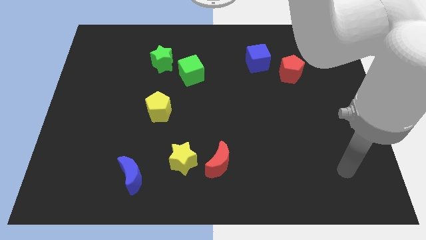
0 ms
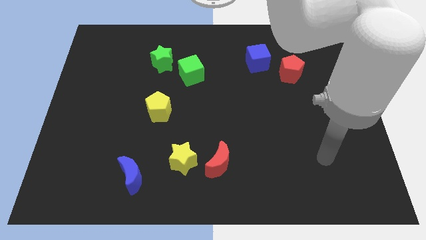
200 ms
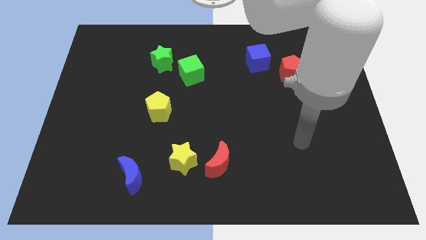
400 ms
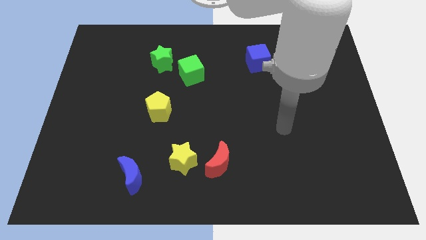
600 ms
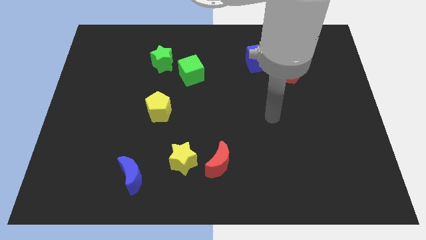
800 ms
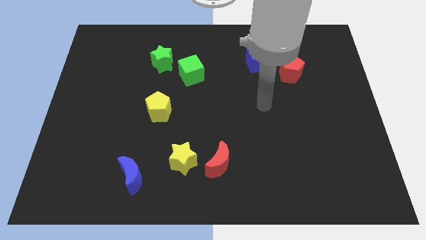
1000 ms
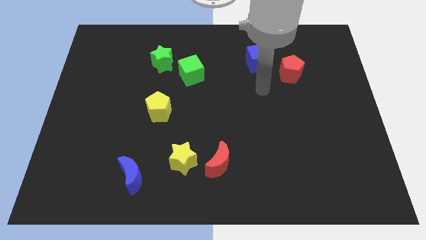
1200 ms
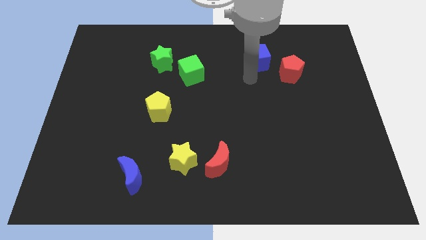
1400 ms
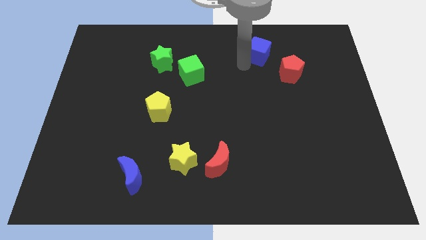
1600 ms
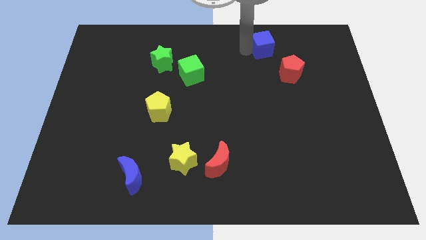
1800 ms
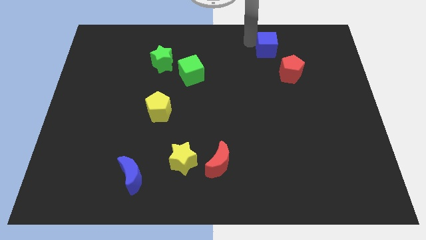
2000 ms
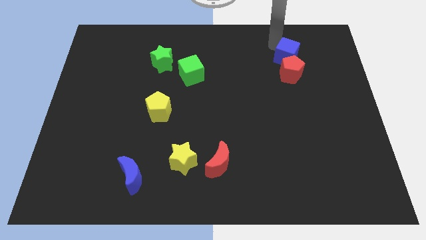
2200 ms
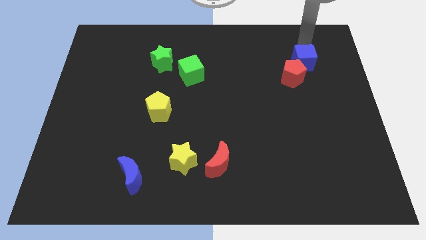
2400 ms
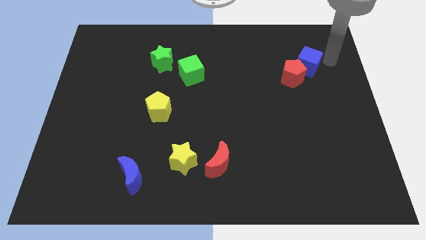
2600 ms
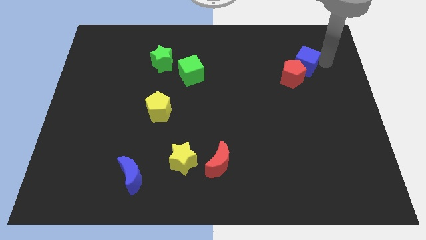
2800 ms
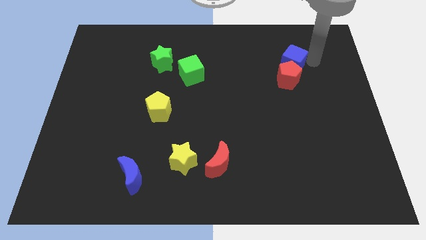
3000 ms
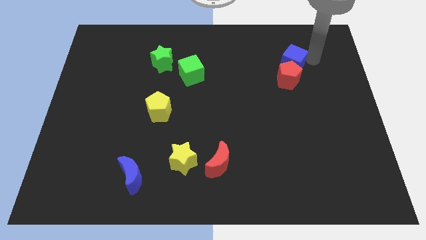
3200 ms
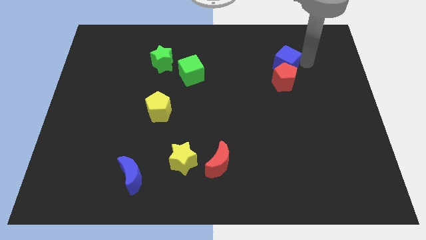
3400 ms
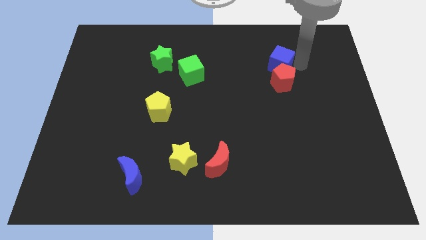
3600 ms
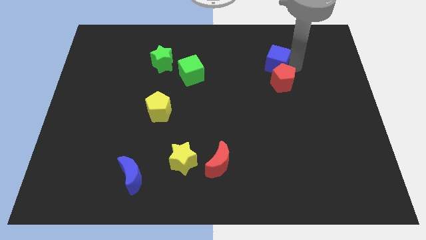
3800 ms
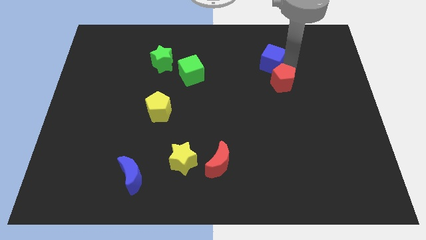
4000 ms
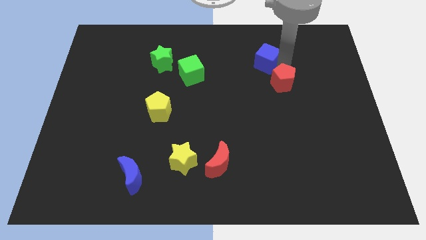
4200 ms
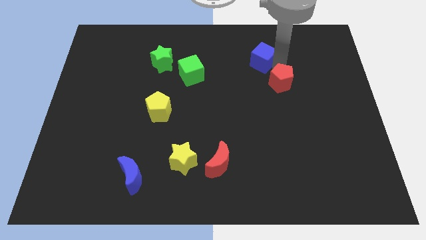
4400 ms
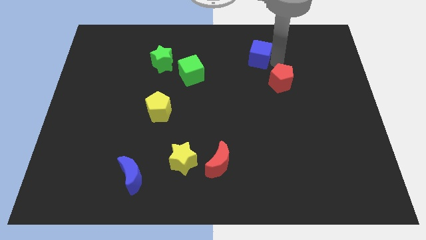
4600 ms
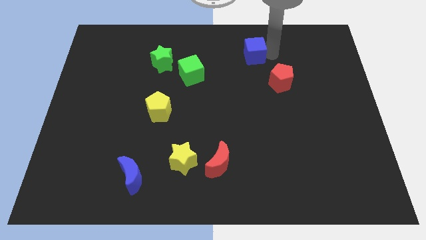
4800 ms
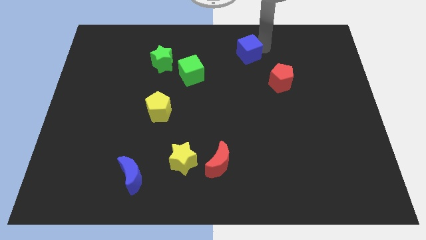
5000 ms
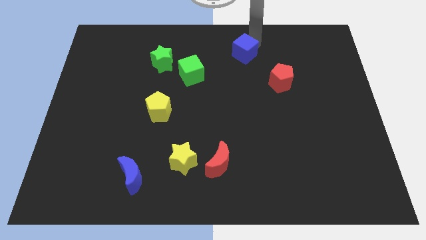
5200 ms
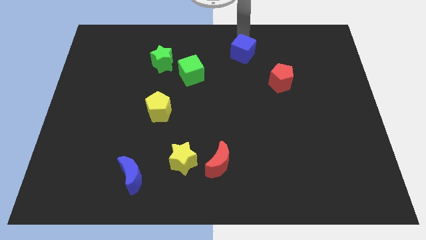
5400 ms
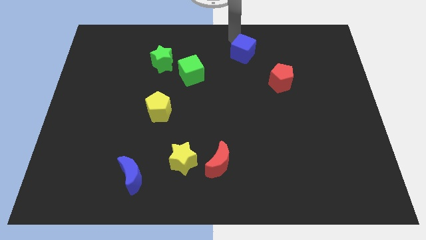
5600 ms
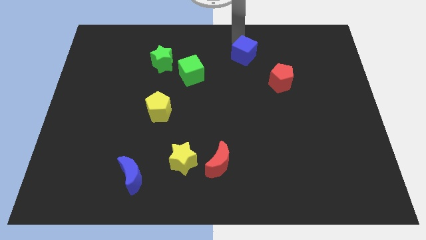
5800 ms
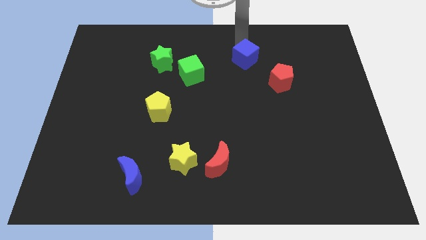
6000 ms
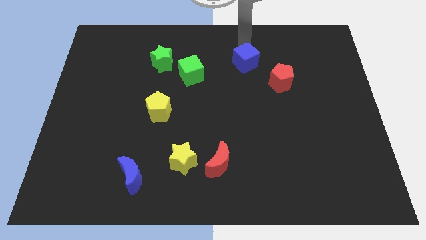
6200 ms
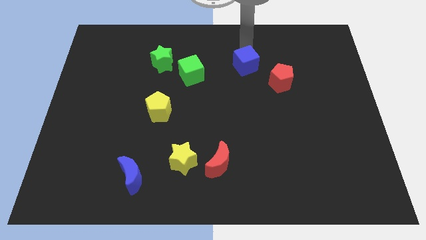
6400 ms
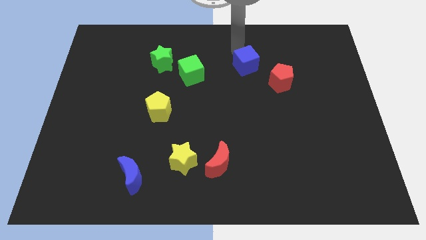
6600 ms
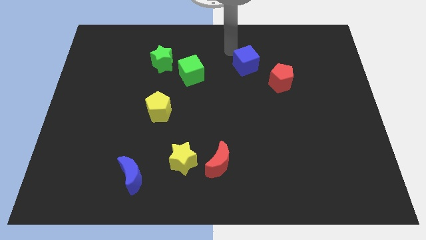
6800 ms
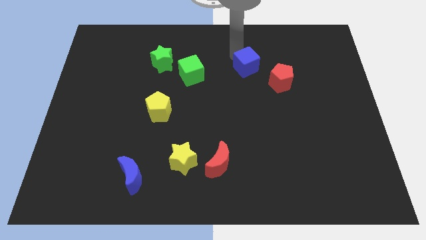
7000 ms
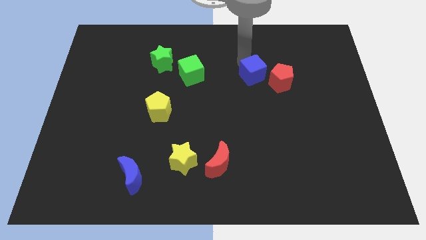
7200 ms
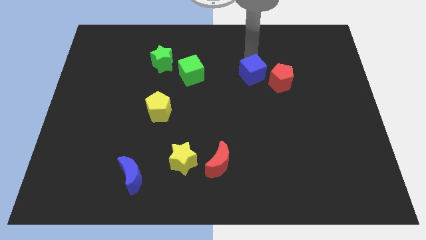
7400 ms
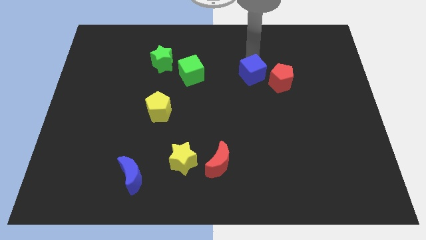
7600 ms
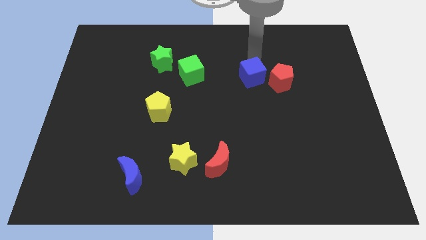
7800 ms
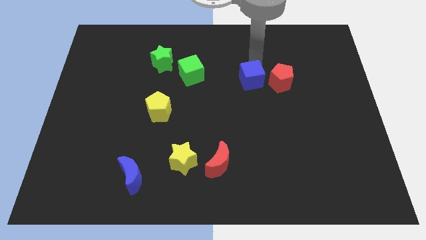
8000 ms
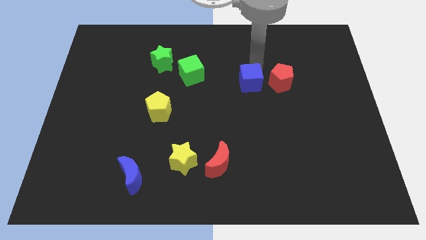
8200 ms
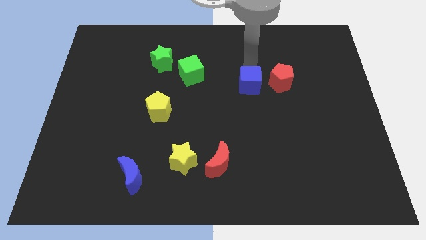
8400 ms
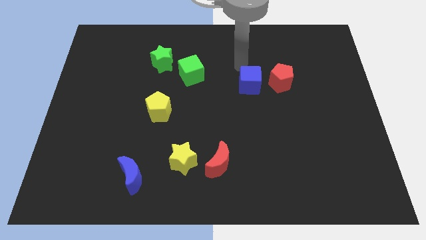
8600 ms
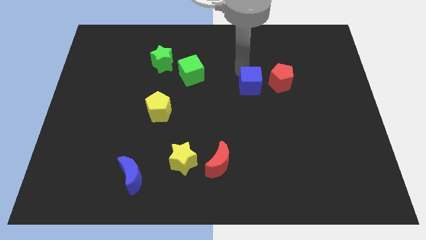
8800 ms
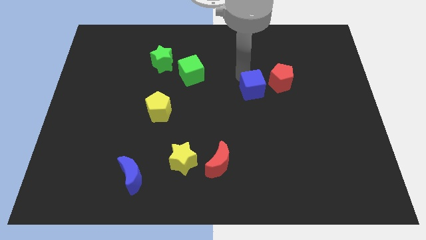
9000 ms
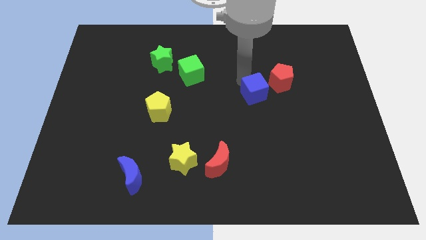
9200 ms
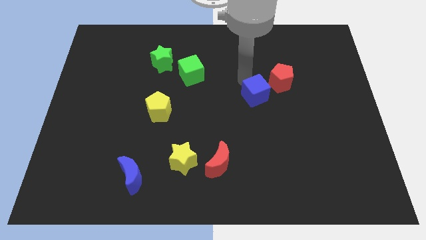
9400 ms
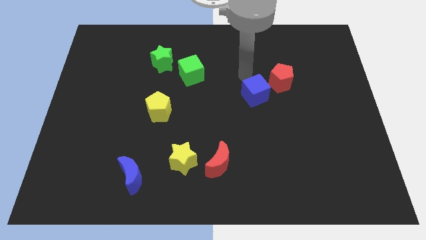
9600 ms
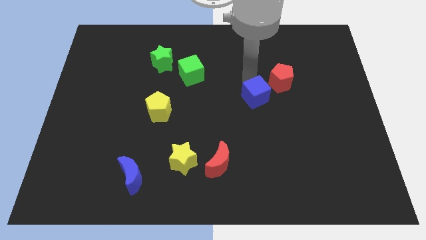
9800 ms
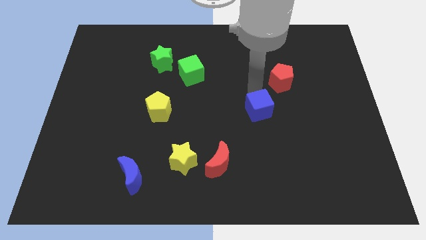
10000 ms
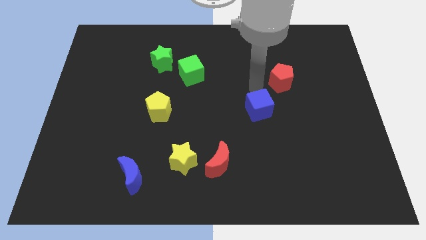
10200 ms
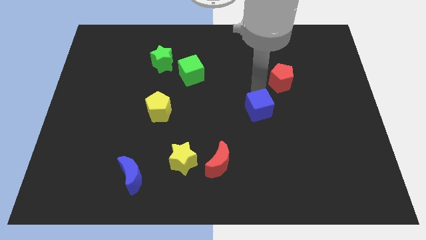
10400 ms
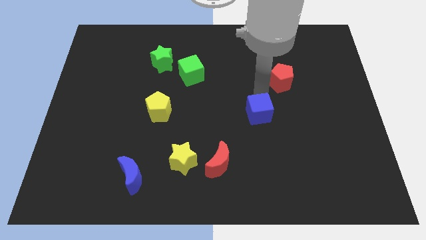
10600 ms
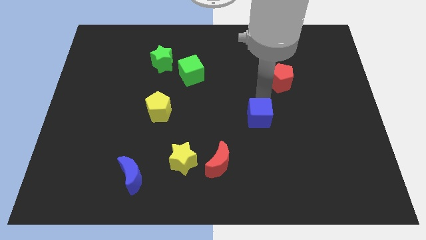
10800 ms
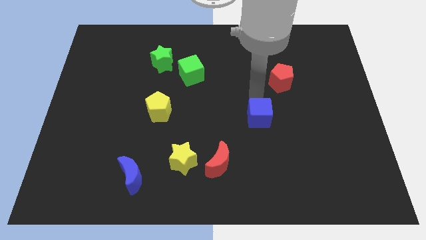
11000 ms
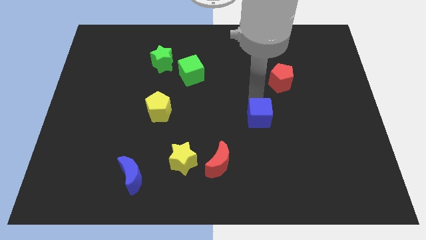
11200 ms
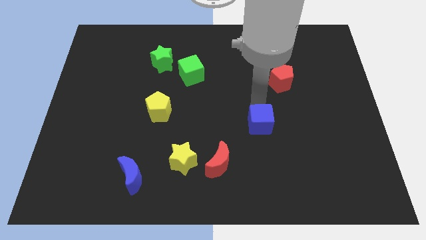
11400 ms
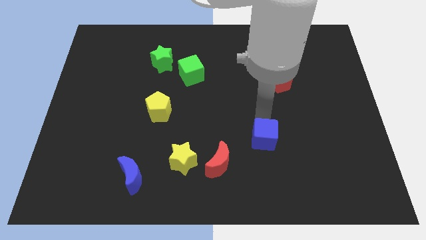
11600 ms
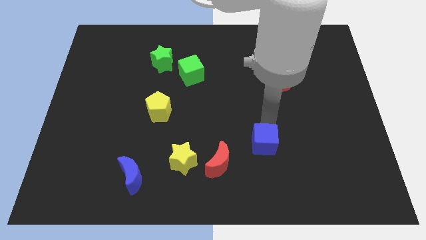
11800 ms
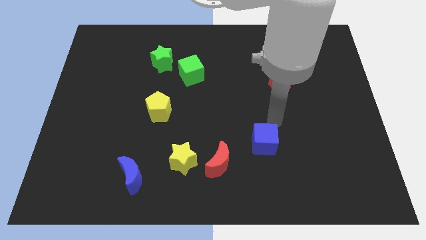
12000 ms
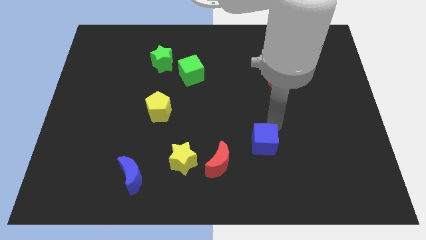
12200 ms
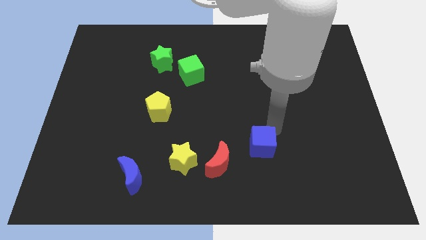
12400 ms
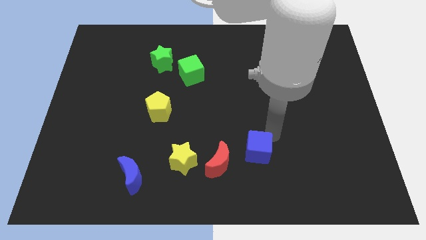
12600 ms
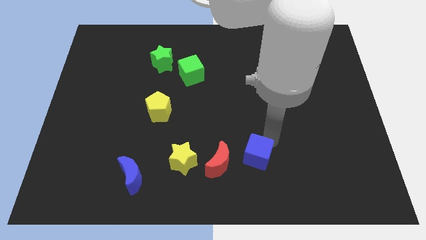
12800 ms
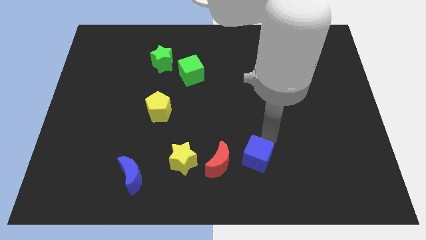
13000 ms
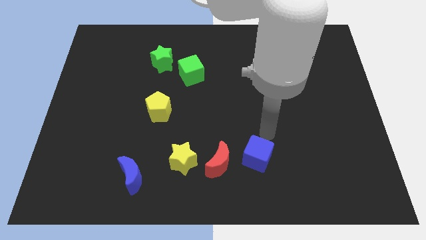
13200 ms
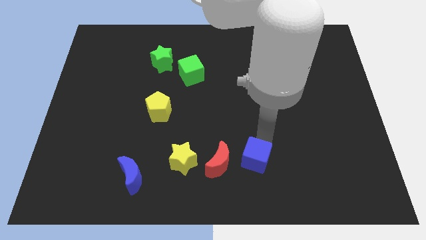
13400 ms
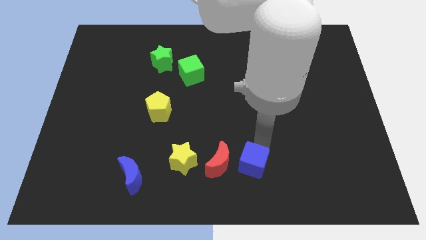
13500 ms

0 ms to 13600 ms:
move the blue cube to the bottom

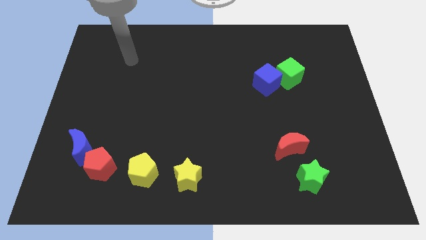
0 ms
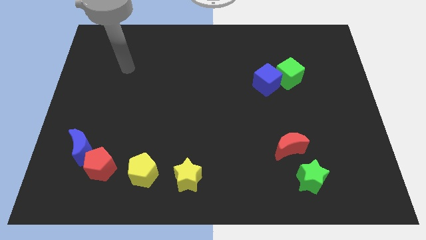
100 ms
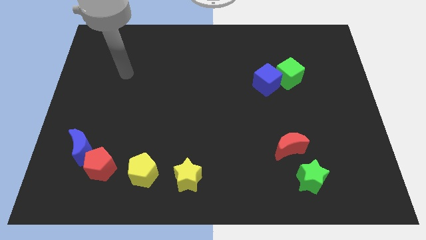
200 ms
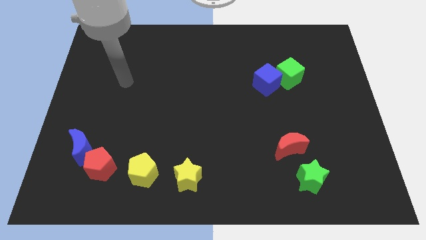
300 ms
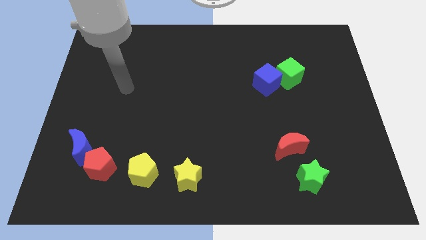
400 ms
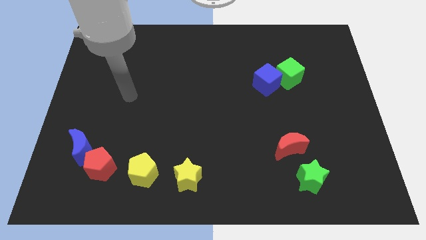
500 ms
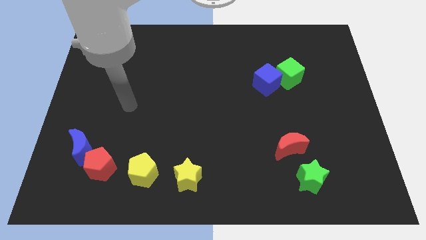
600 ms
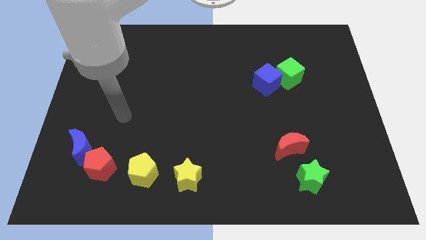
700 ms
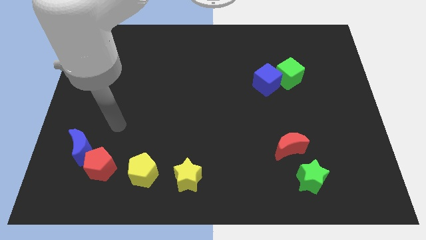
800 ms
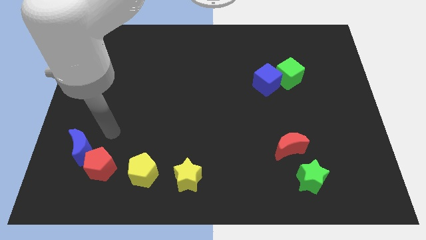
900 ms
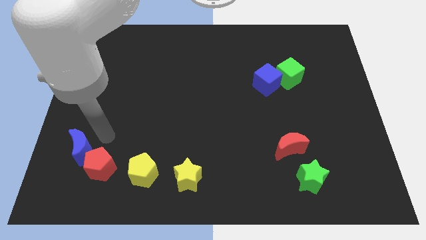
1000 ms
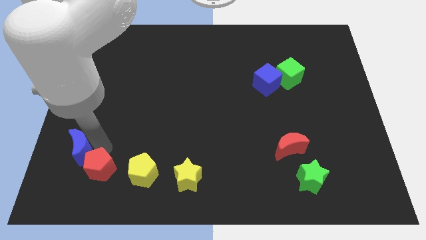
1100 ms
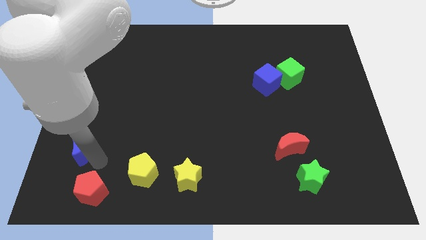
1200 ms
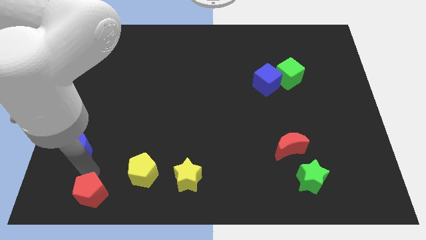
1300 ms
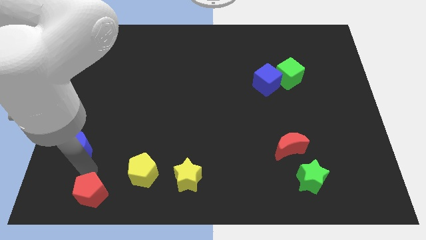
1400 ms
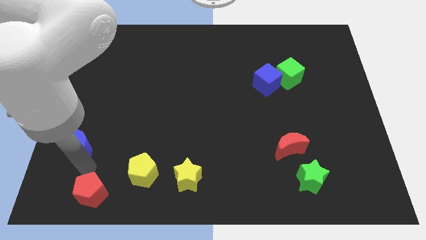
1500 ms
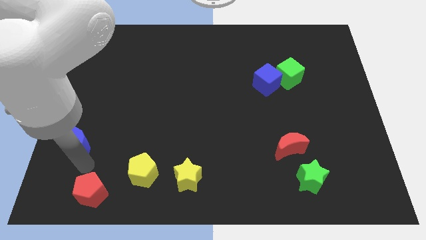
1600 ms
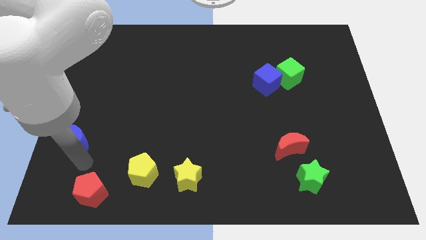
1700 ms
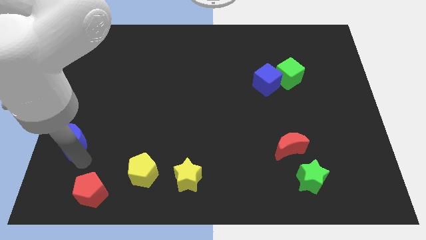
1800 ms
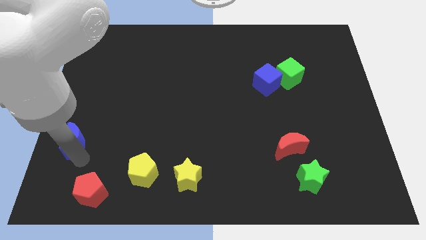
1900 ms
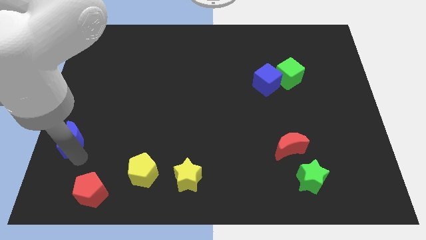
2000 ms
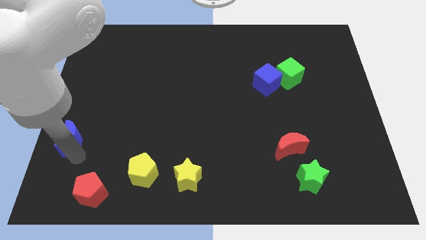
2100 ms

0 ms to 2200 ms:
push the blue moon to the left side
